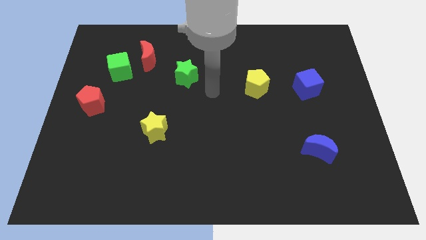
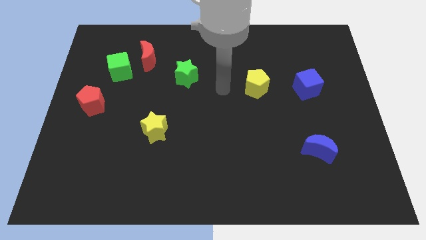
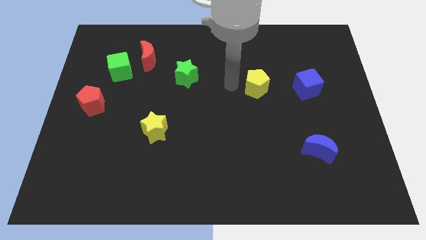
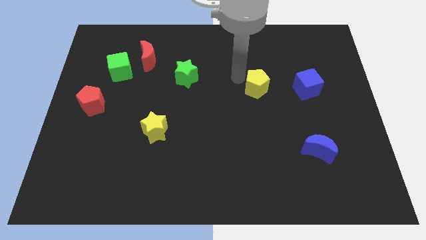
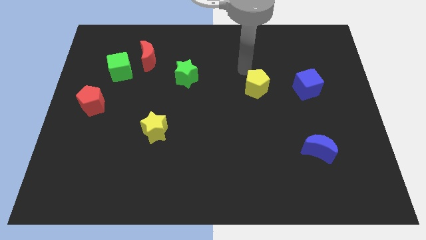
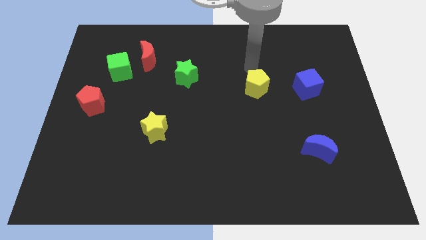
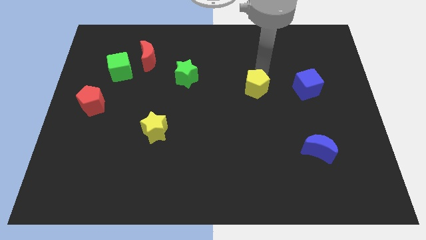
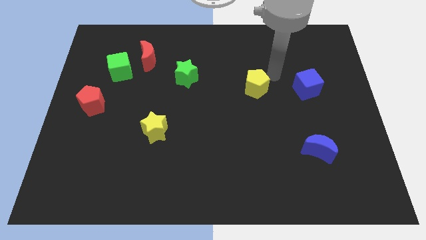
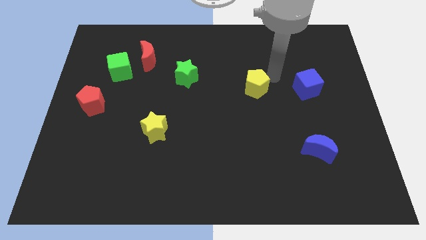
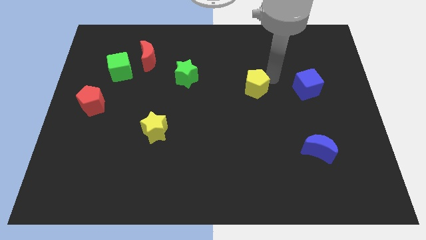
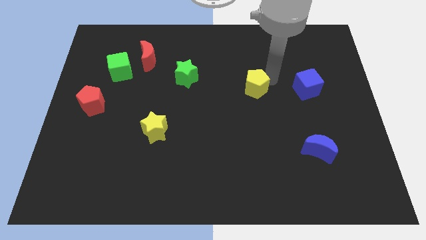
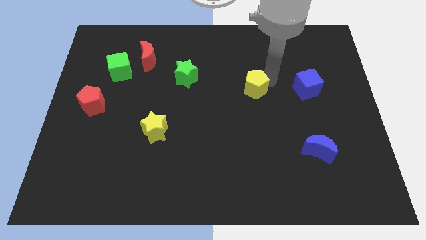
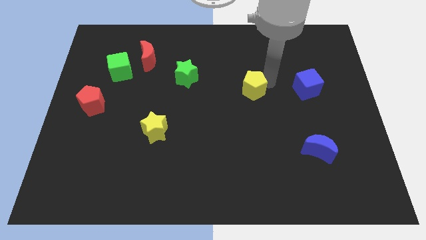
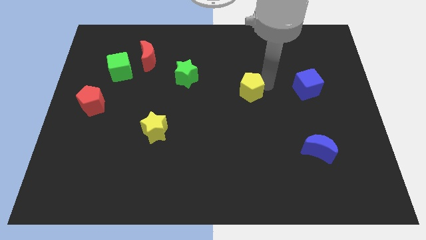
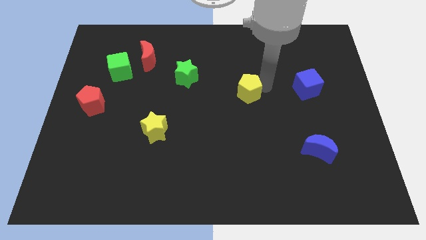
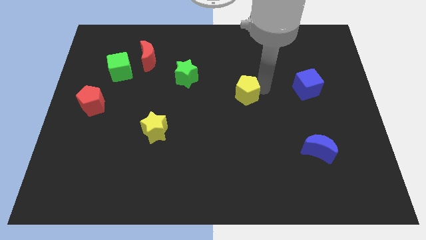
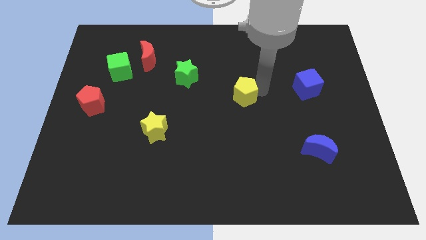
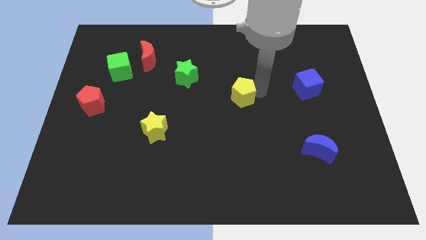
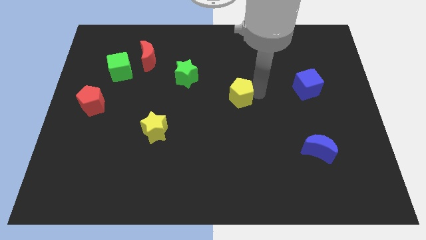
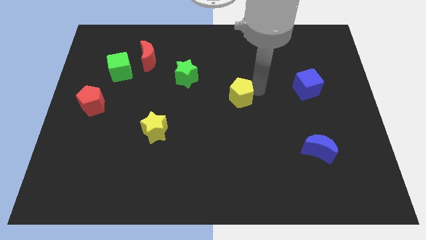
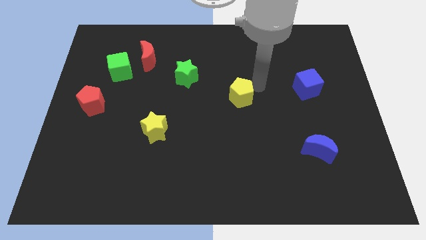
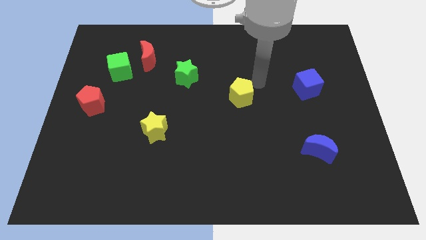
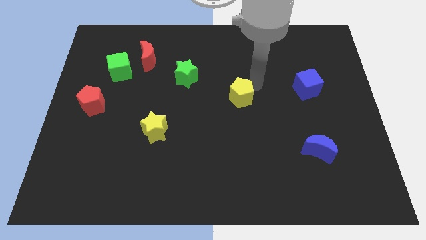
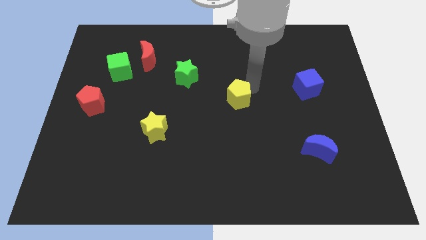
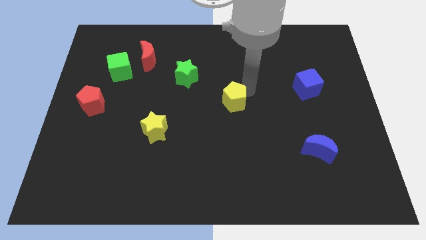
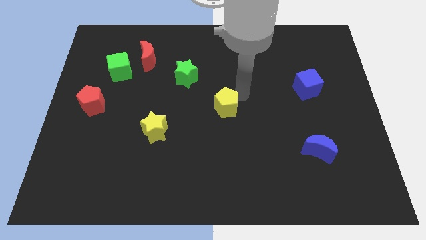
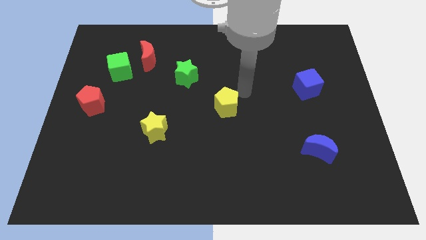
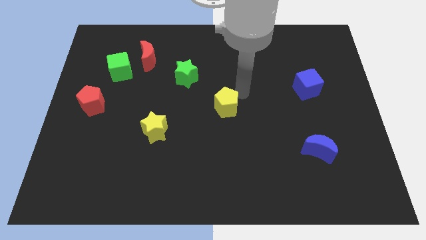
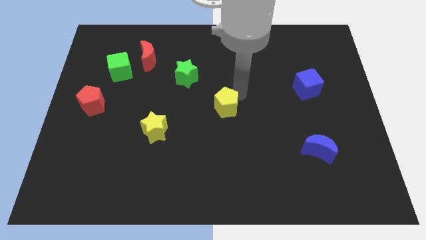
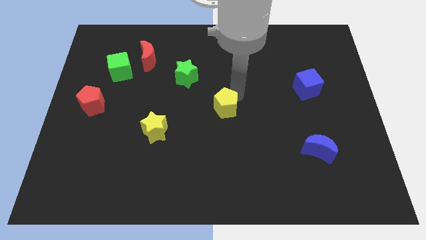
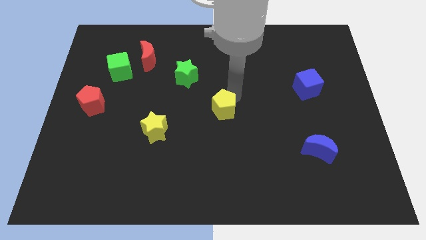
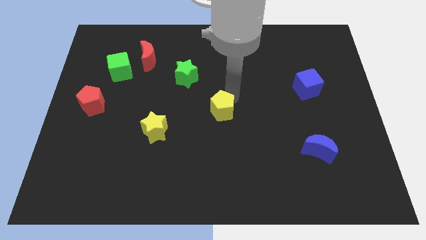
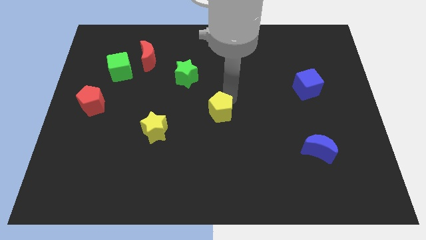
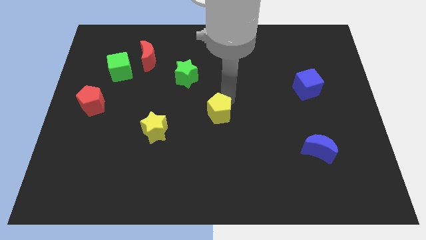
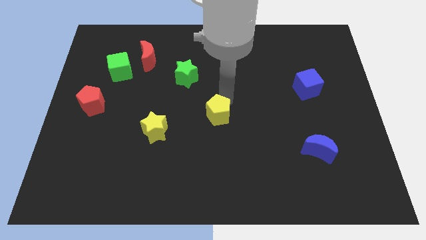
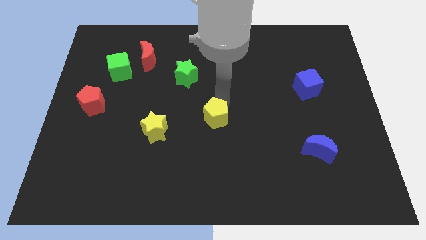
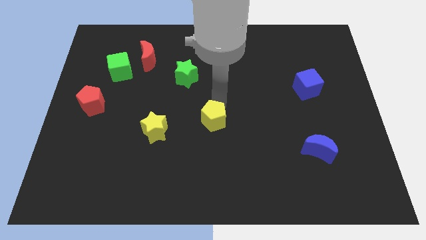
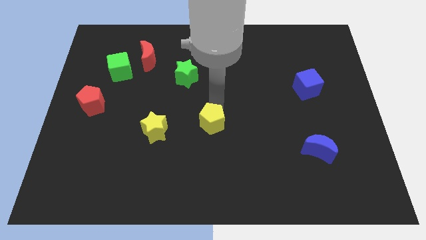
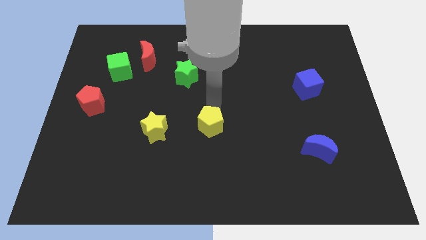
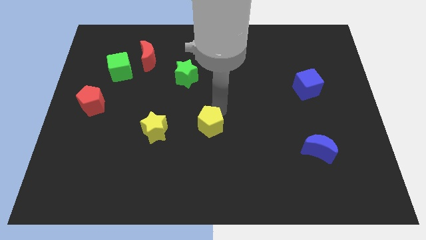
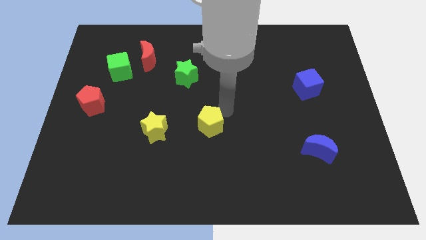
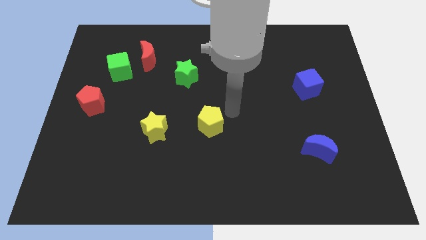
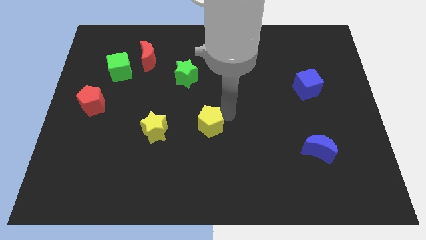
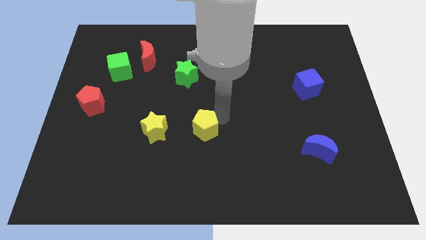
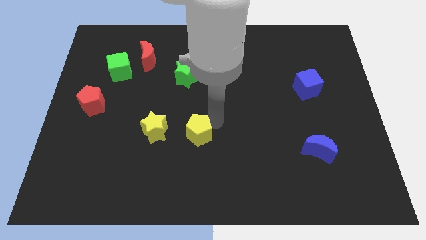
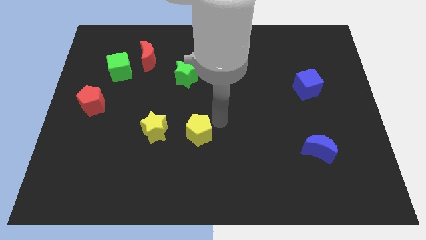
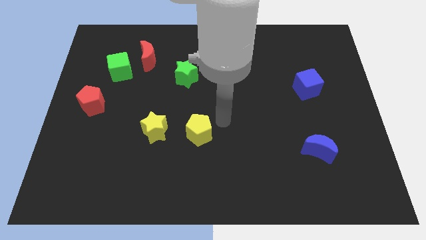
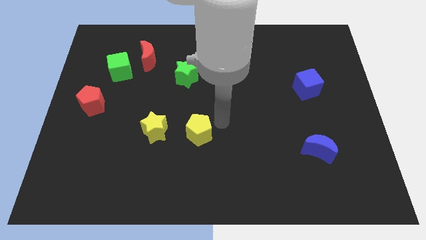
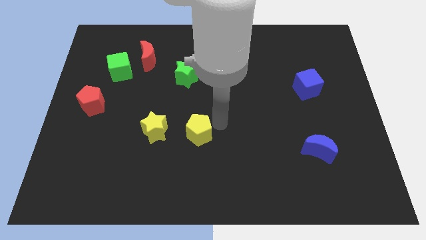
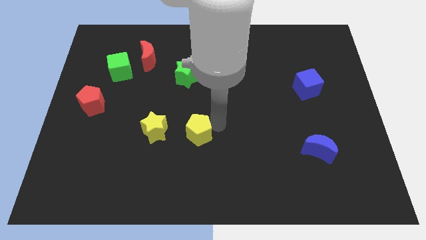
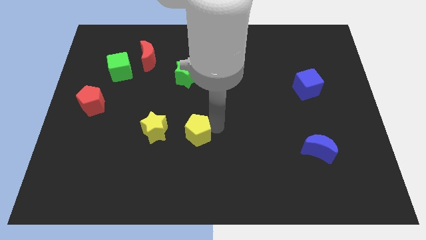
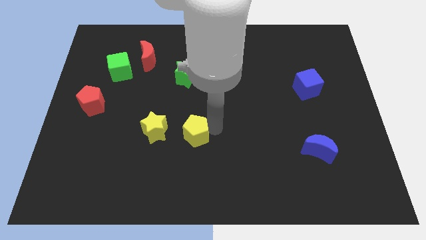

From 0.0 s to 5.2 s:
move the yellow pentagon down and to the left

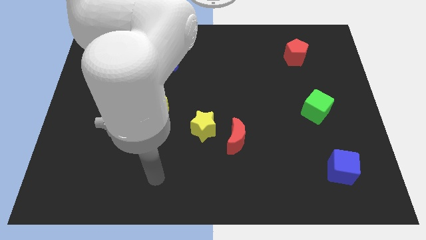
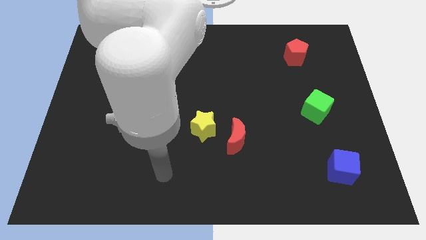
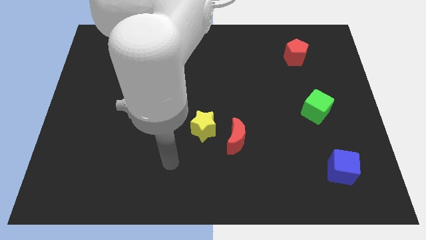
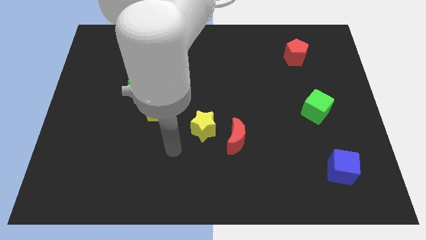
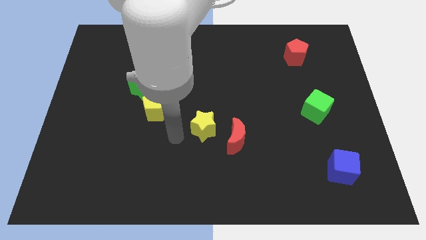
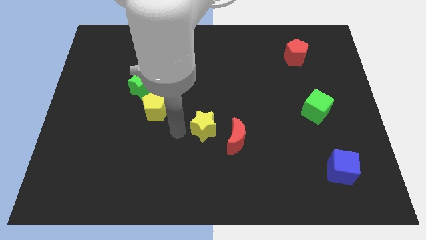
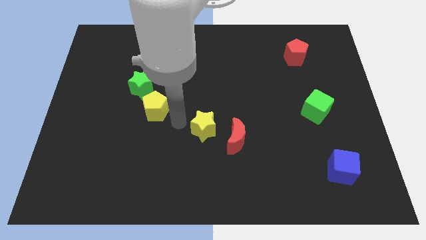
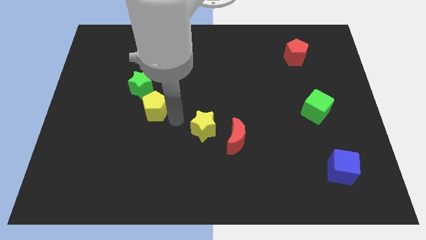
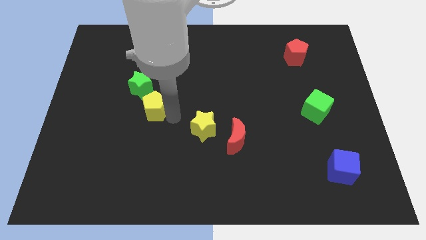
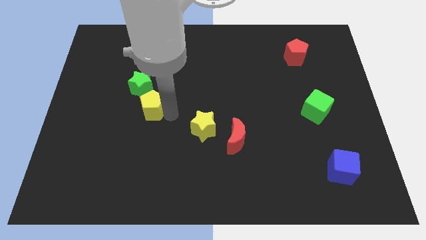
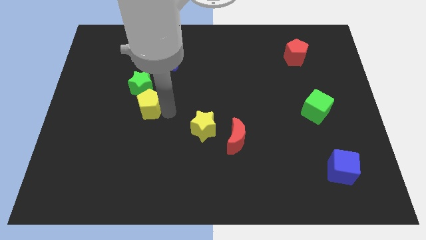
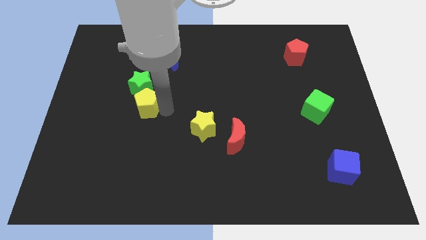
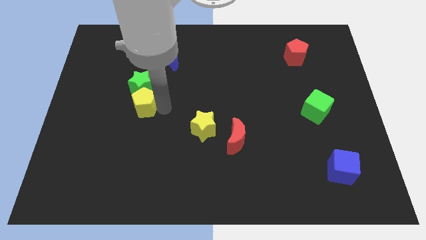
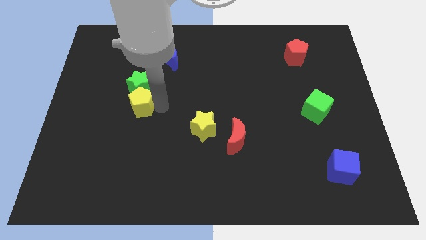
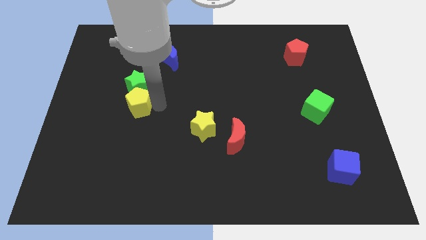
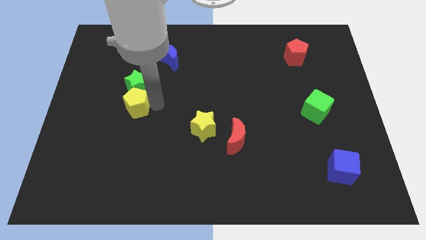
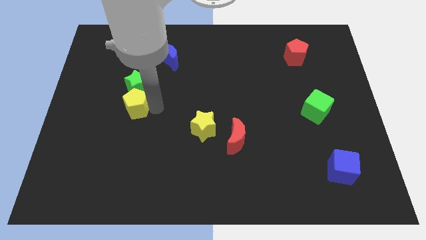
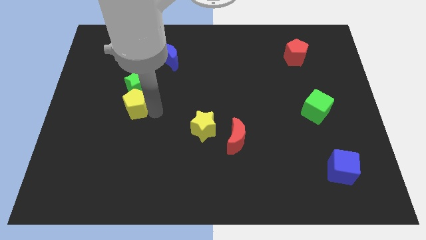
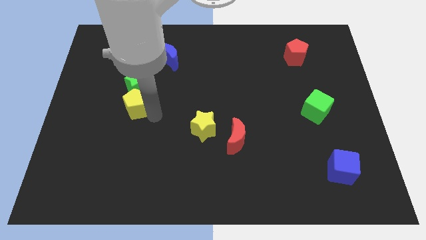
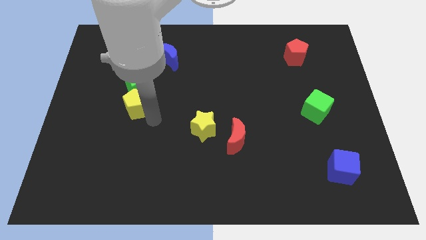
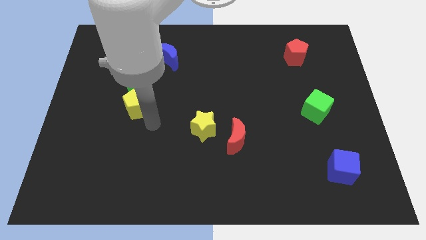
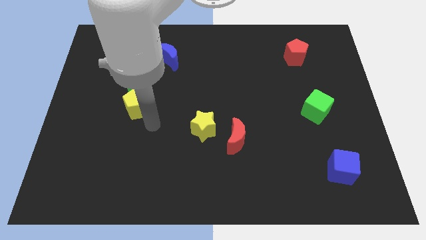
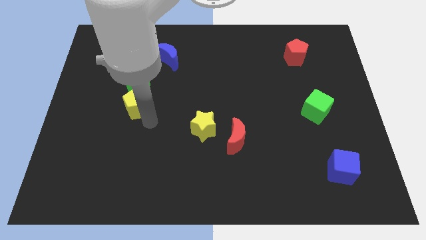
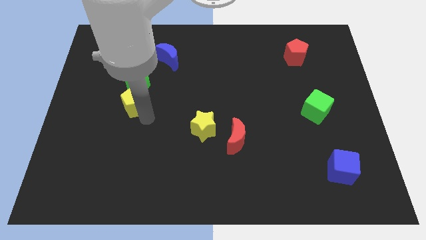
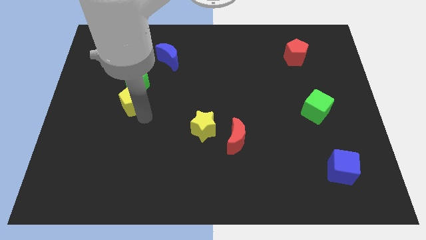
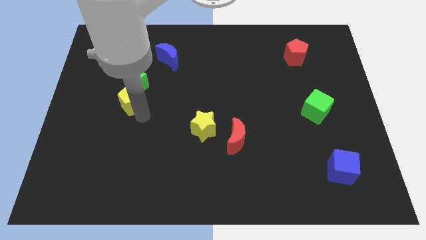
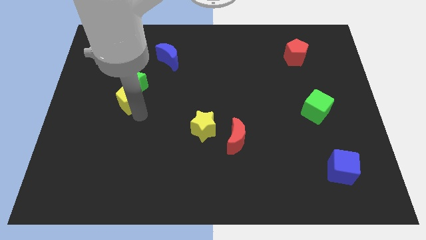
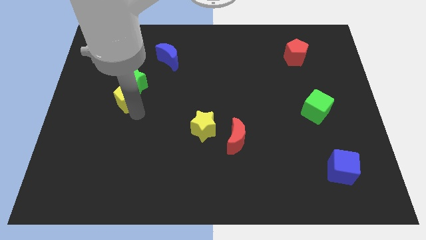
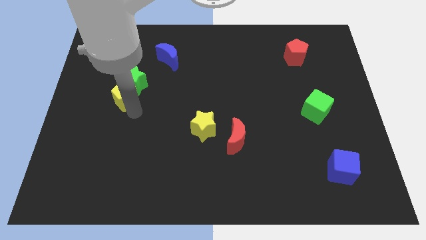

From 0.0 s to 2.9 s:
move the yellow pentagon a bit up and left

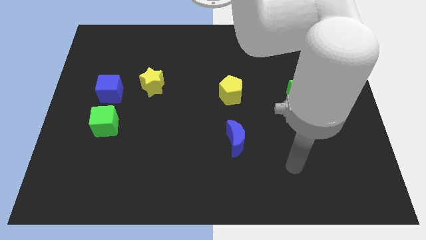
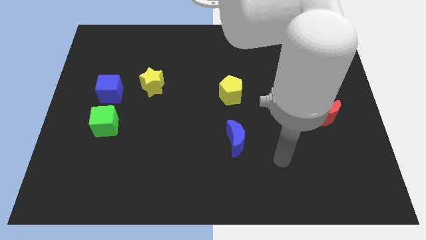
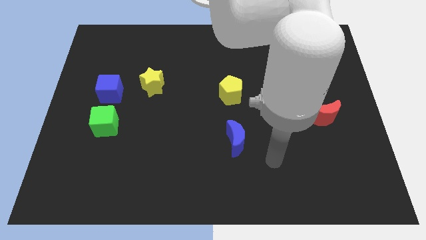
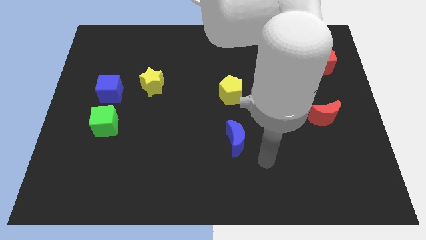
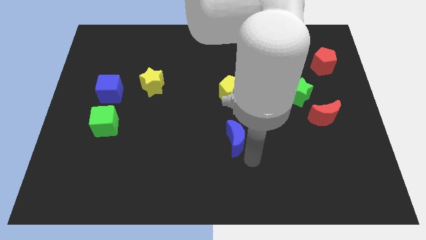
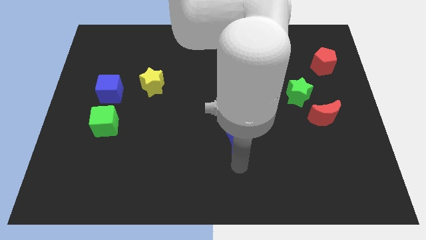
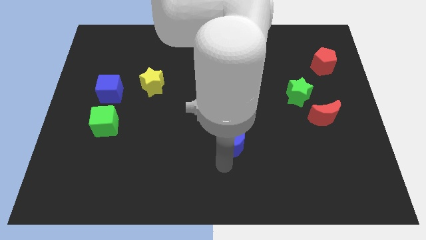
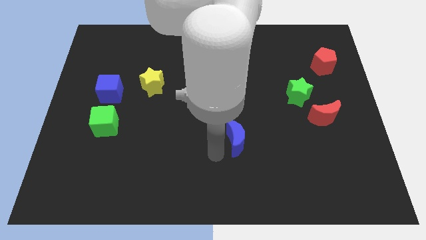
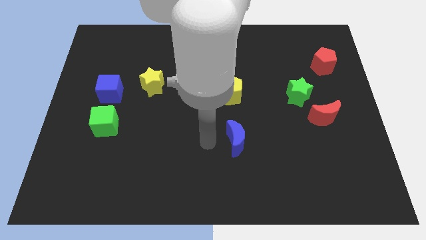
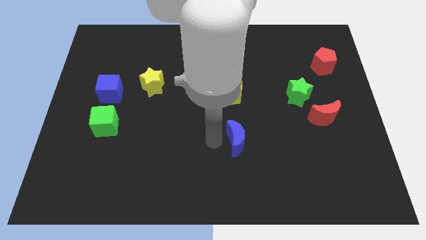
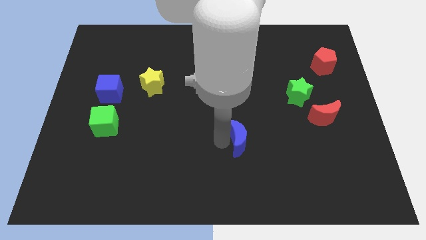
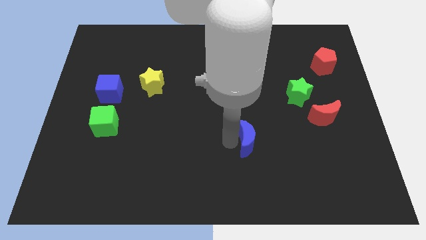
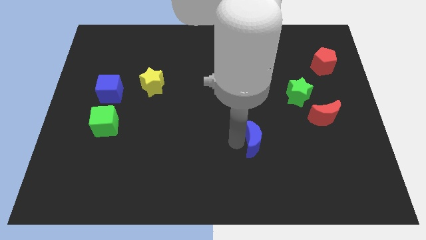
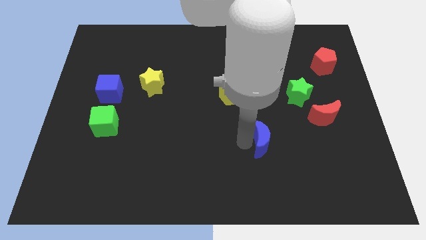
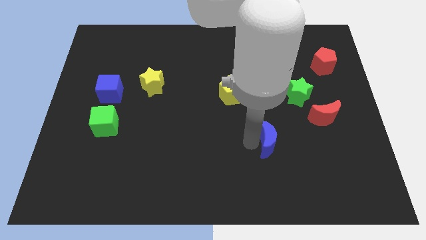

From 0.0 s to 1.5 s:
move the blue moon to the right slightly
